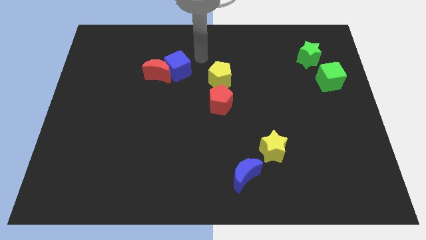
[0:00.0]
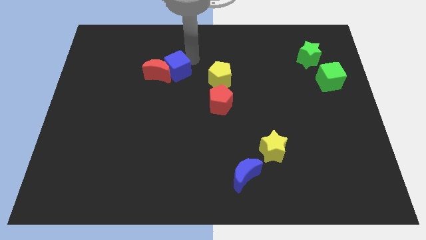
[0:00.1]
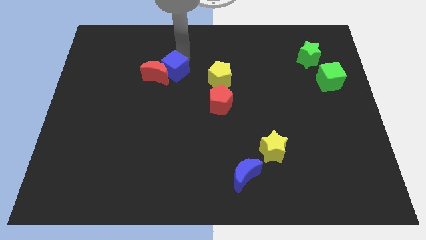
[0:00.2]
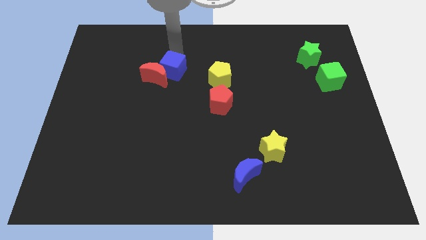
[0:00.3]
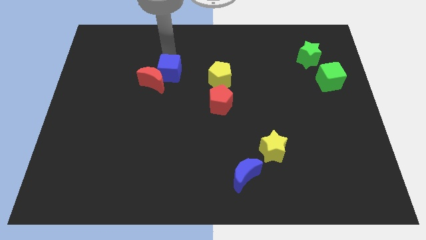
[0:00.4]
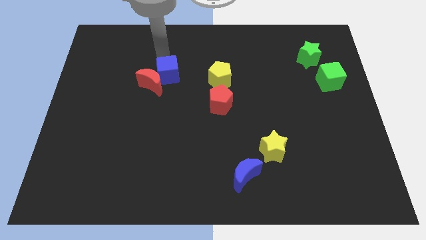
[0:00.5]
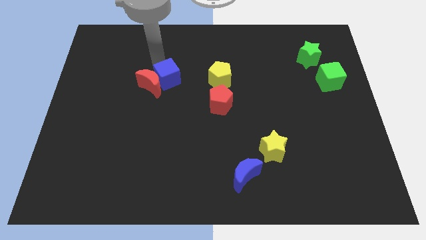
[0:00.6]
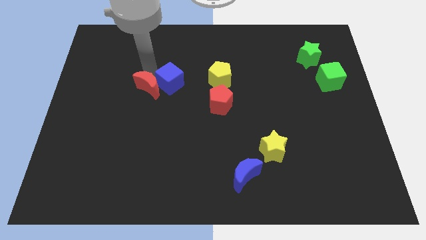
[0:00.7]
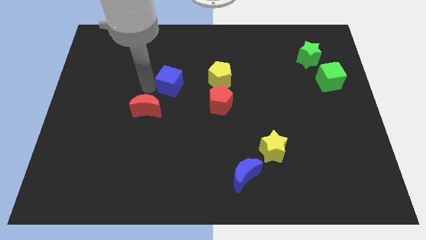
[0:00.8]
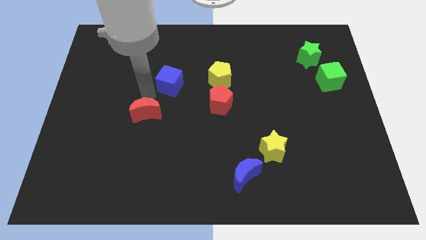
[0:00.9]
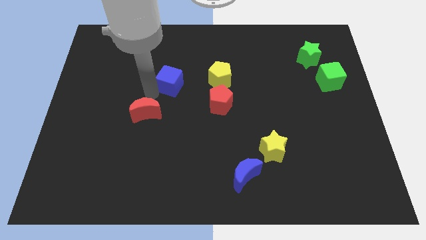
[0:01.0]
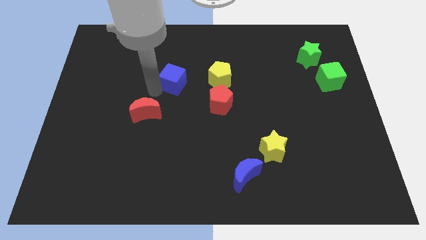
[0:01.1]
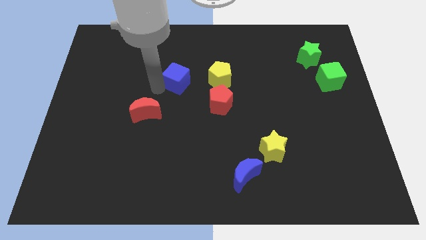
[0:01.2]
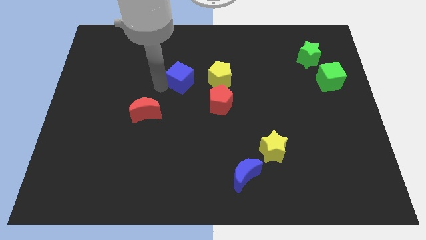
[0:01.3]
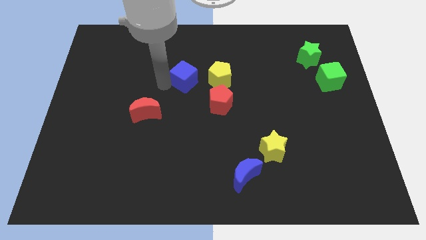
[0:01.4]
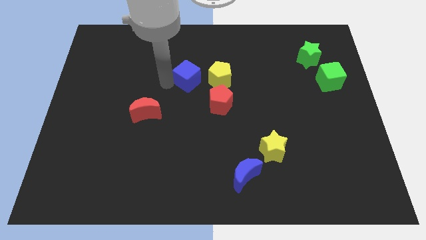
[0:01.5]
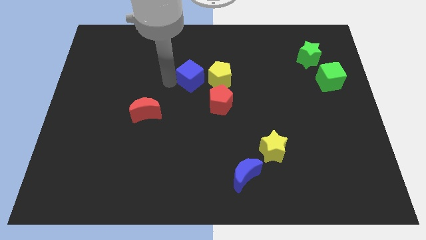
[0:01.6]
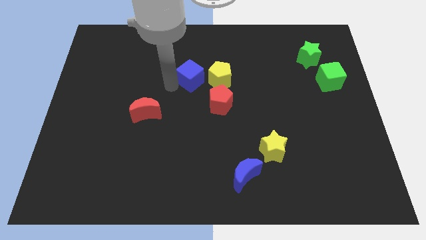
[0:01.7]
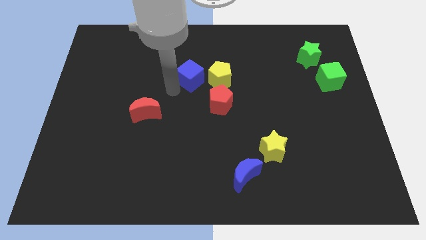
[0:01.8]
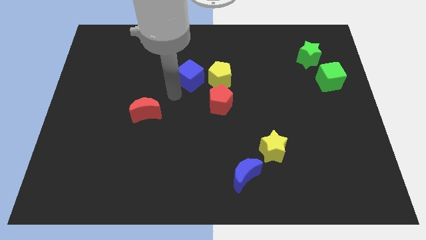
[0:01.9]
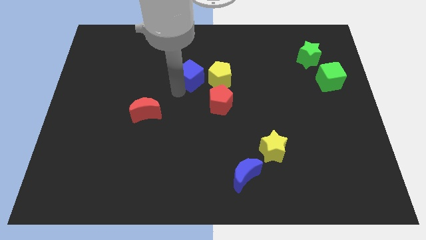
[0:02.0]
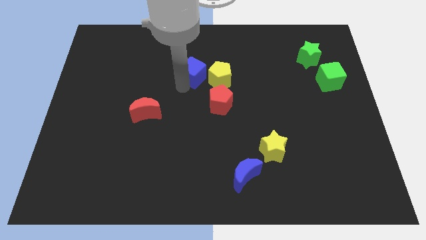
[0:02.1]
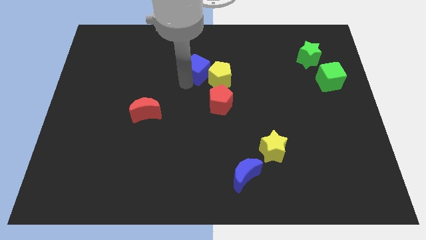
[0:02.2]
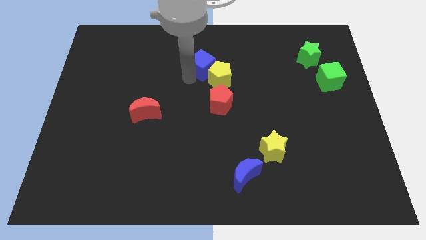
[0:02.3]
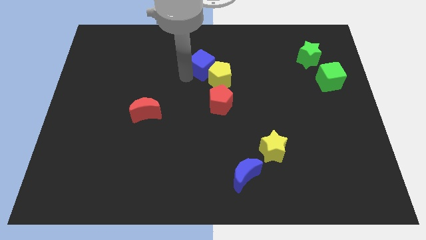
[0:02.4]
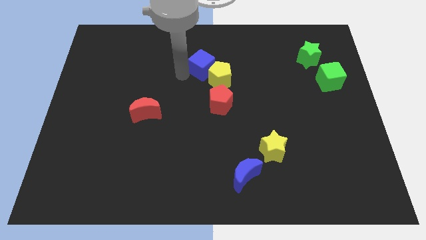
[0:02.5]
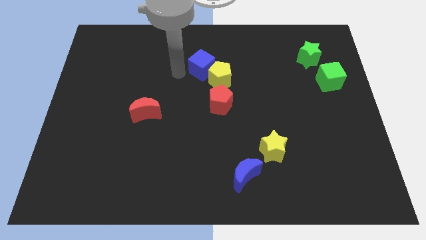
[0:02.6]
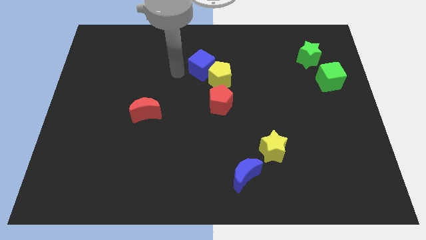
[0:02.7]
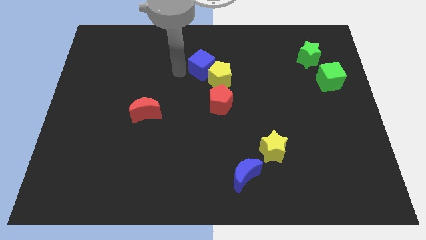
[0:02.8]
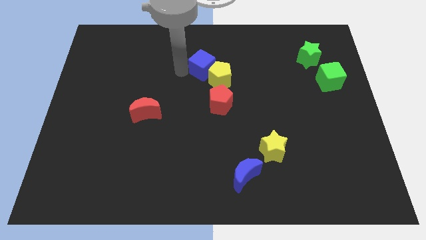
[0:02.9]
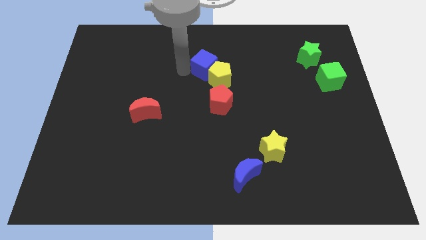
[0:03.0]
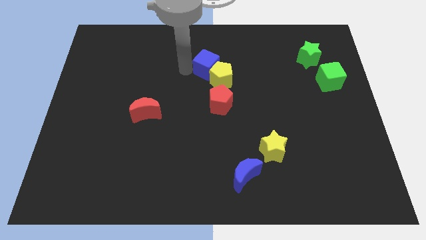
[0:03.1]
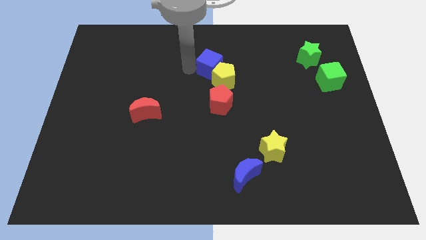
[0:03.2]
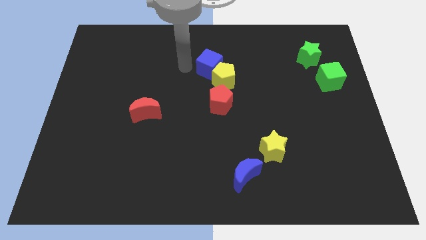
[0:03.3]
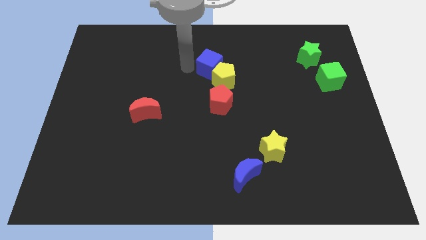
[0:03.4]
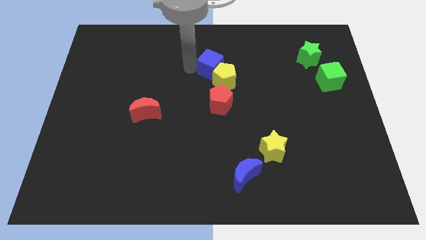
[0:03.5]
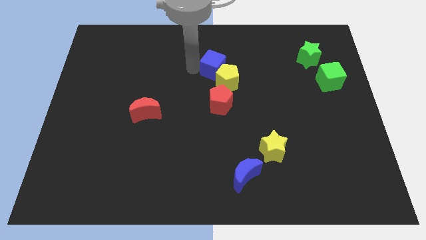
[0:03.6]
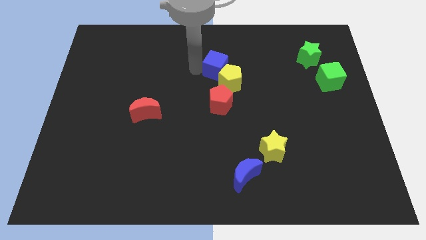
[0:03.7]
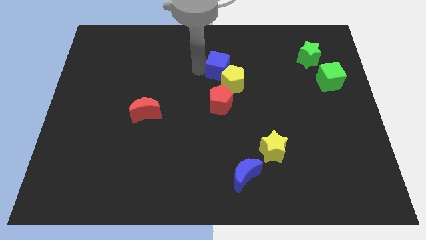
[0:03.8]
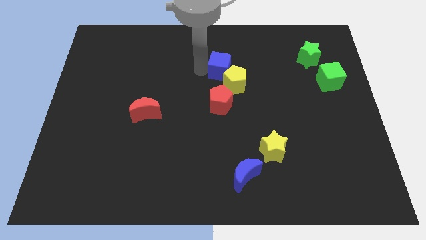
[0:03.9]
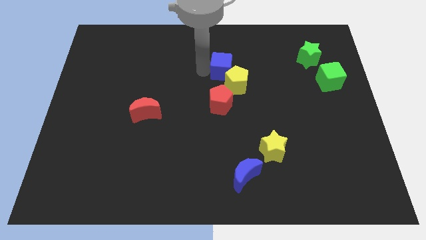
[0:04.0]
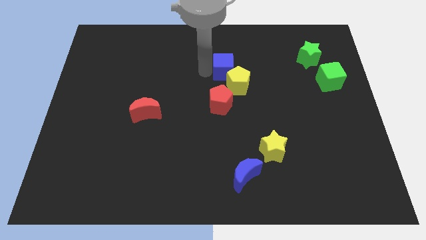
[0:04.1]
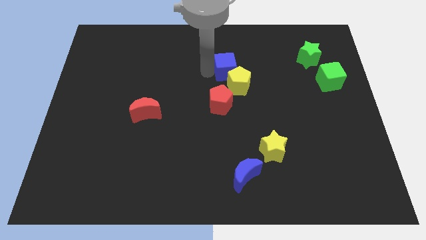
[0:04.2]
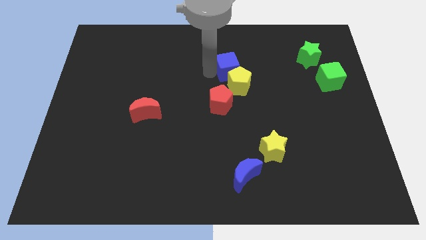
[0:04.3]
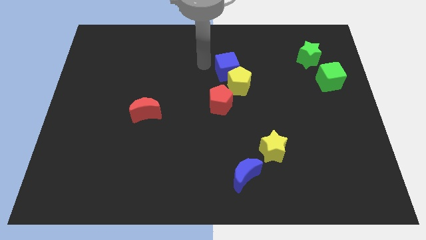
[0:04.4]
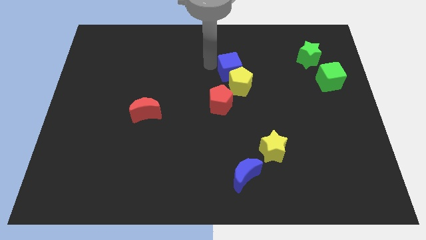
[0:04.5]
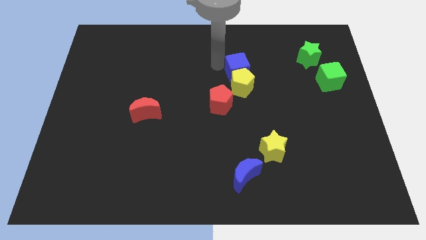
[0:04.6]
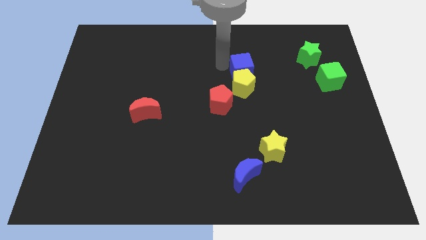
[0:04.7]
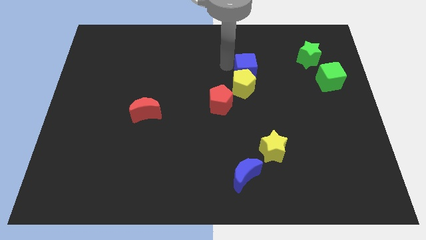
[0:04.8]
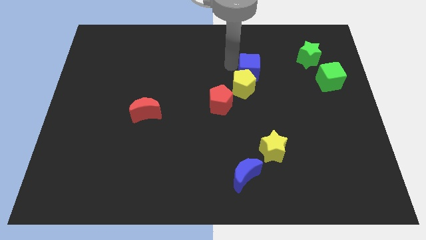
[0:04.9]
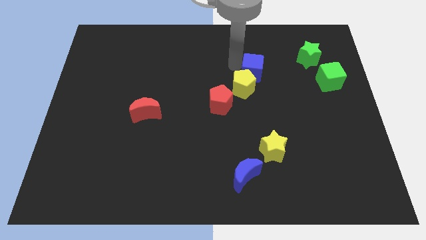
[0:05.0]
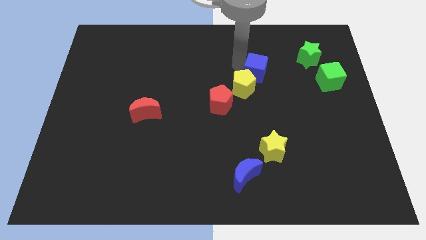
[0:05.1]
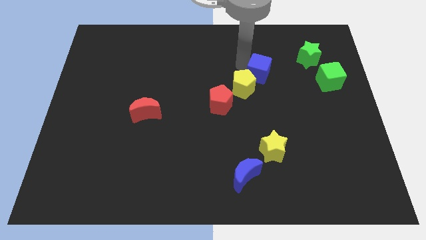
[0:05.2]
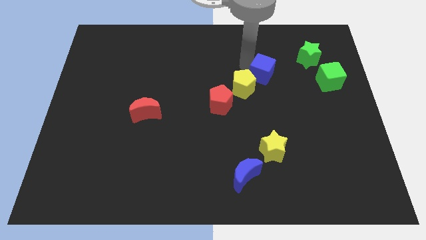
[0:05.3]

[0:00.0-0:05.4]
put the blue cube right of the yellow pentagon

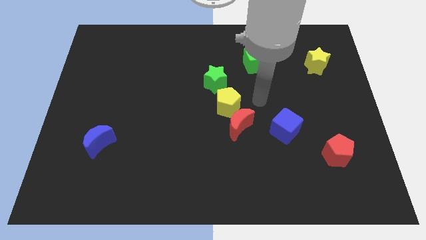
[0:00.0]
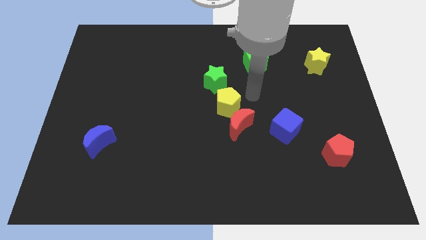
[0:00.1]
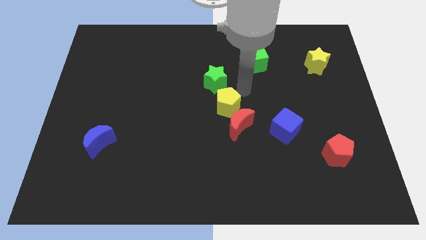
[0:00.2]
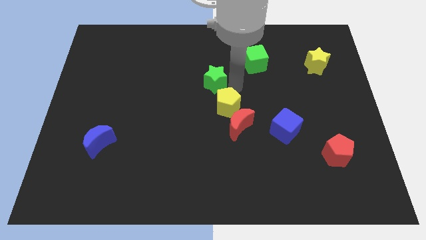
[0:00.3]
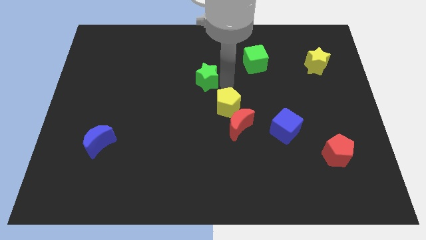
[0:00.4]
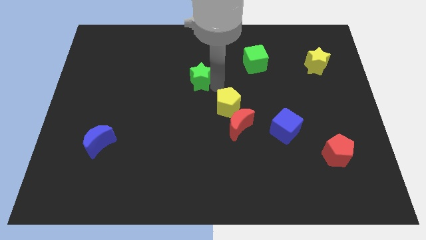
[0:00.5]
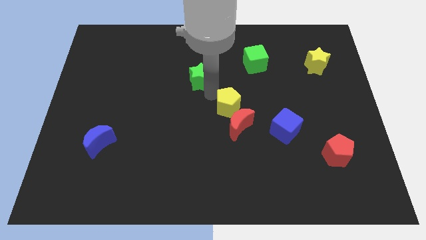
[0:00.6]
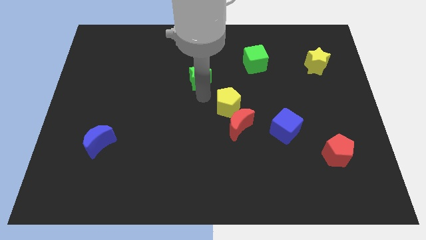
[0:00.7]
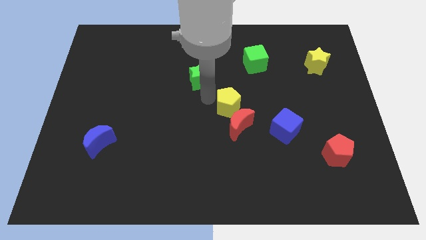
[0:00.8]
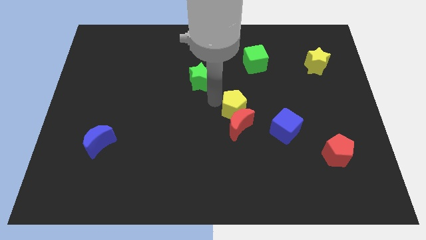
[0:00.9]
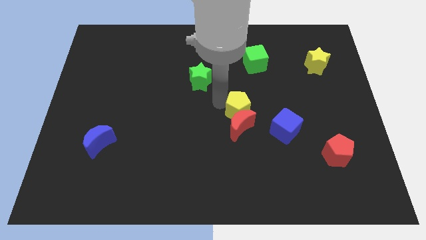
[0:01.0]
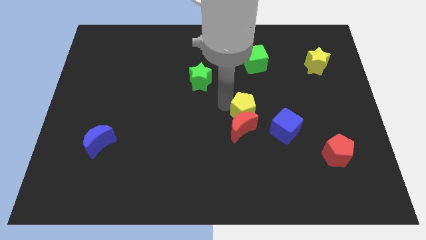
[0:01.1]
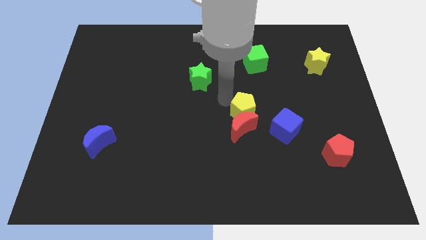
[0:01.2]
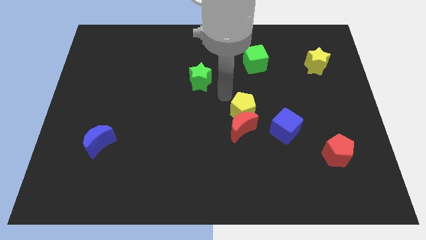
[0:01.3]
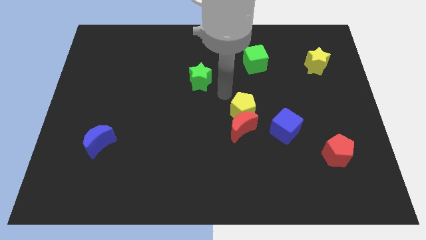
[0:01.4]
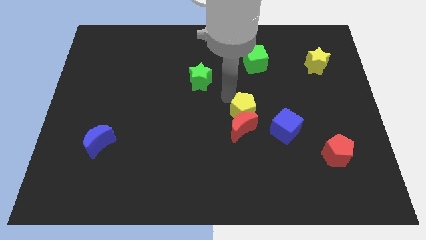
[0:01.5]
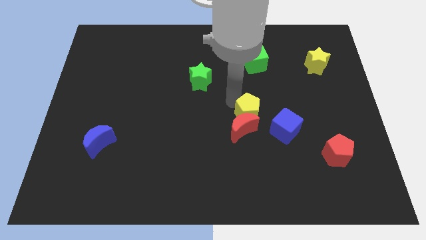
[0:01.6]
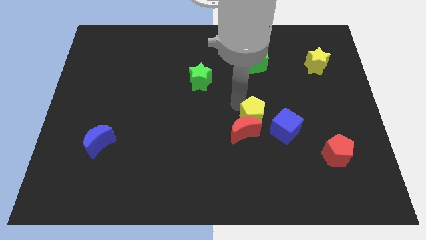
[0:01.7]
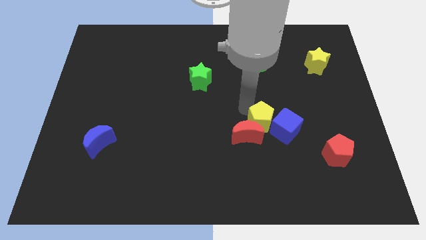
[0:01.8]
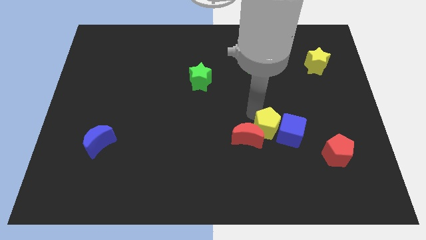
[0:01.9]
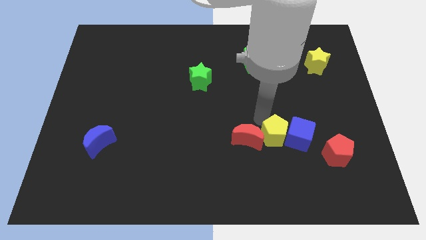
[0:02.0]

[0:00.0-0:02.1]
put the yellow pentagon diagonally down and to the right of the red moon
